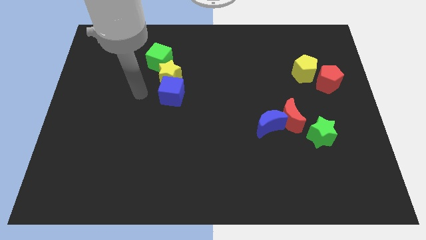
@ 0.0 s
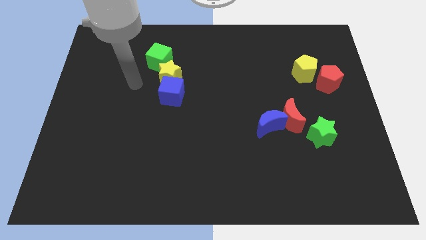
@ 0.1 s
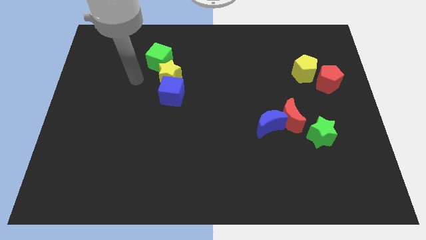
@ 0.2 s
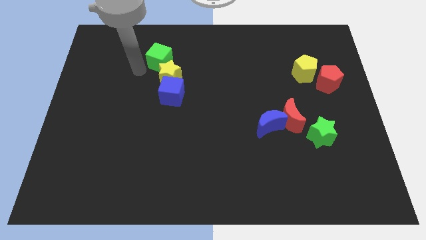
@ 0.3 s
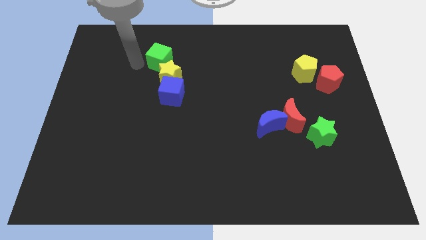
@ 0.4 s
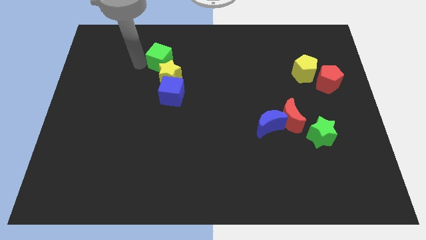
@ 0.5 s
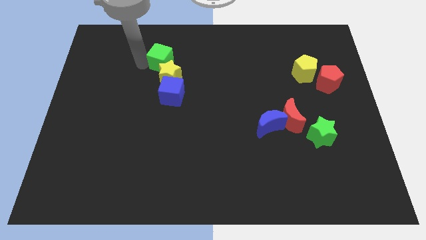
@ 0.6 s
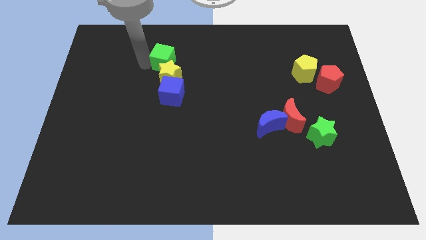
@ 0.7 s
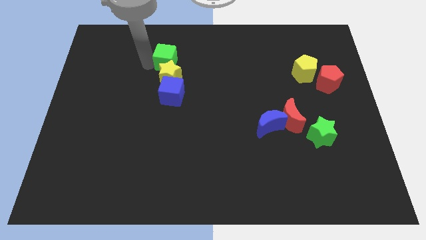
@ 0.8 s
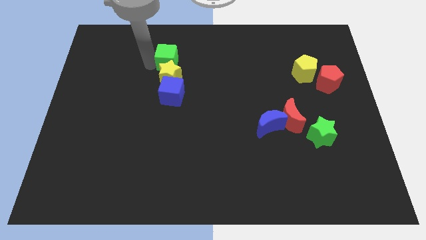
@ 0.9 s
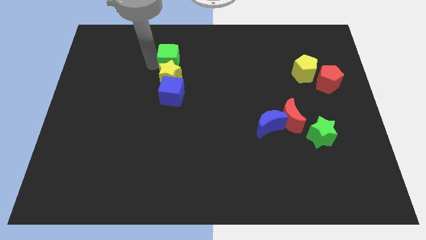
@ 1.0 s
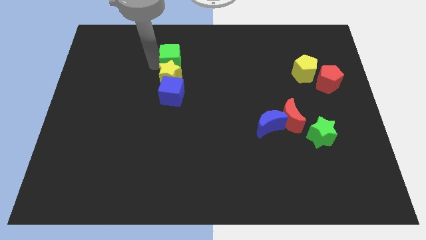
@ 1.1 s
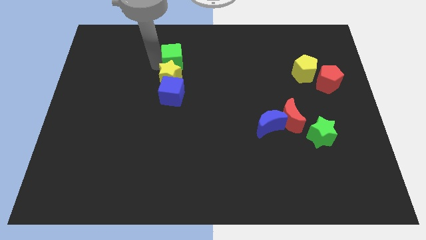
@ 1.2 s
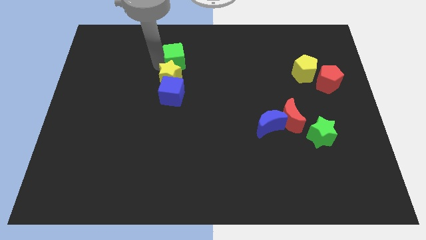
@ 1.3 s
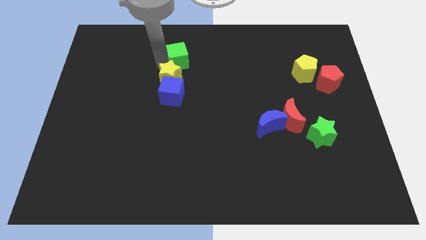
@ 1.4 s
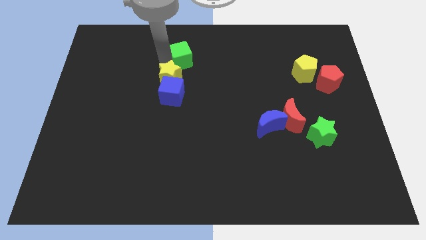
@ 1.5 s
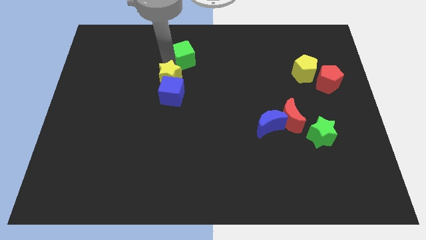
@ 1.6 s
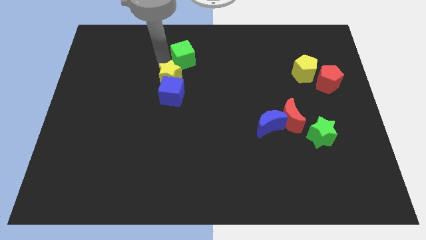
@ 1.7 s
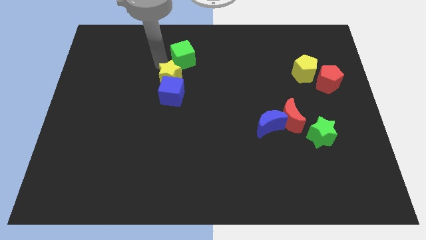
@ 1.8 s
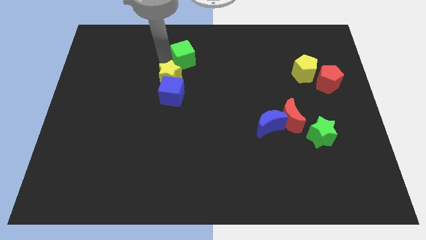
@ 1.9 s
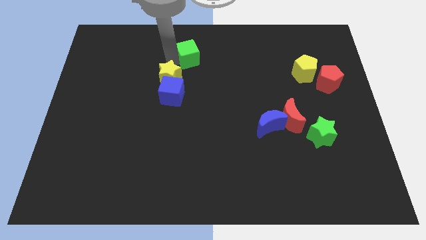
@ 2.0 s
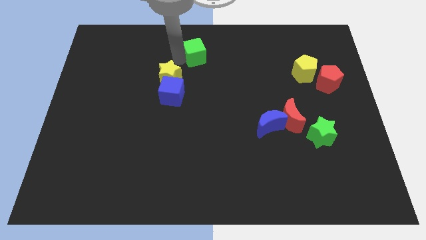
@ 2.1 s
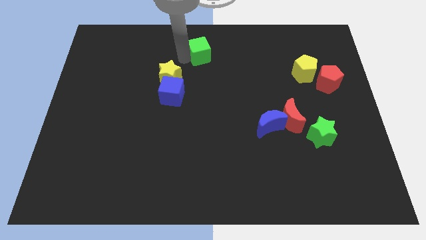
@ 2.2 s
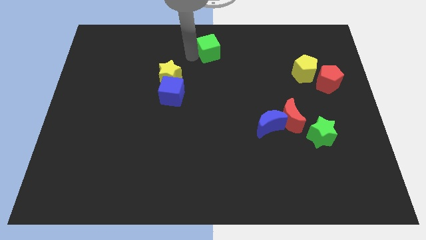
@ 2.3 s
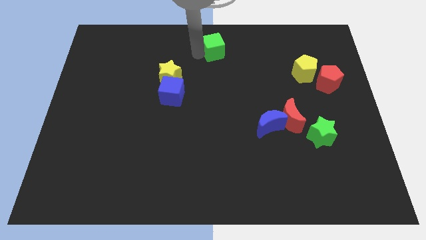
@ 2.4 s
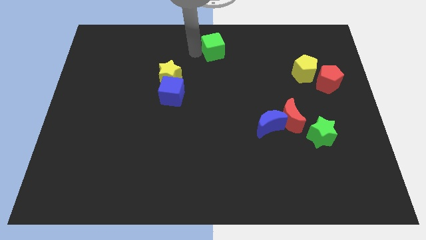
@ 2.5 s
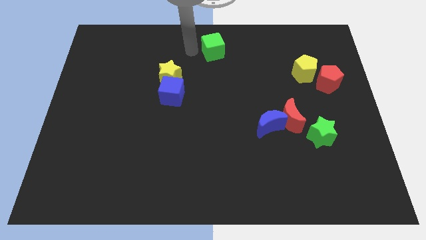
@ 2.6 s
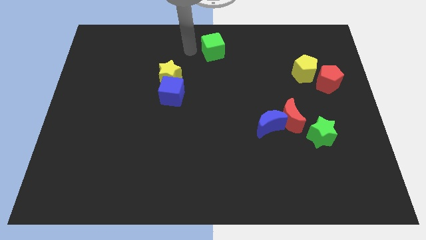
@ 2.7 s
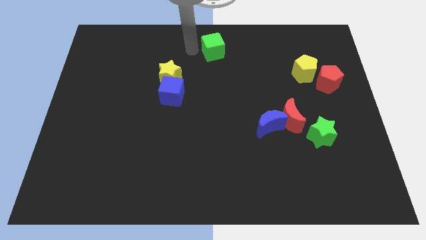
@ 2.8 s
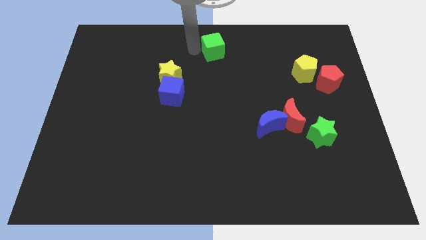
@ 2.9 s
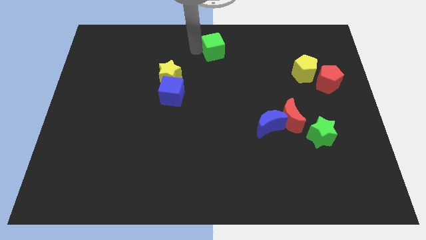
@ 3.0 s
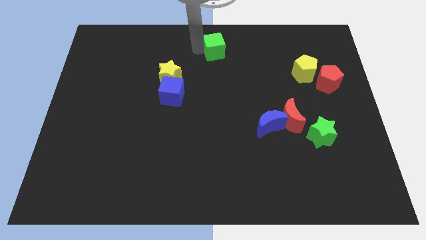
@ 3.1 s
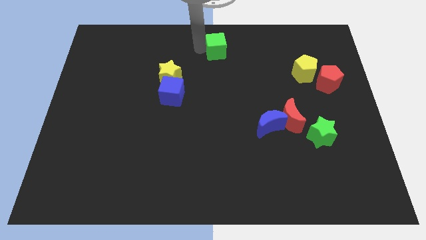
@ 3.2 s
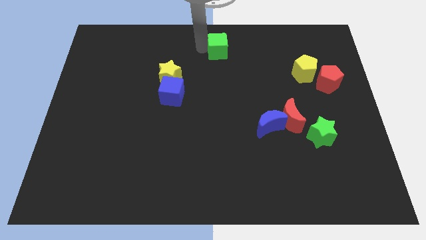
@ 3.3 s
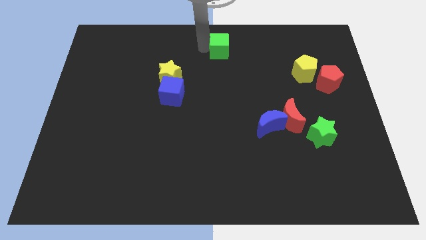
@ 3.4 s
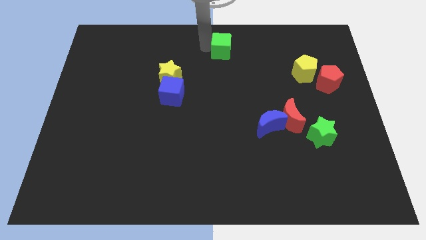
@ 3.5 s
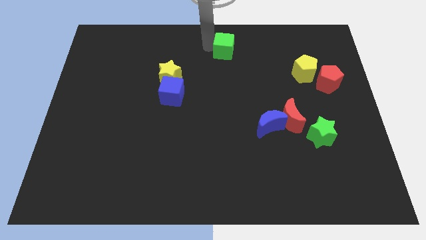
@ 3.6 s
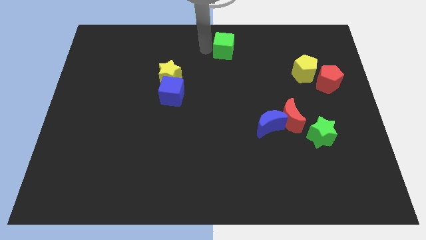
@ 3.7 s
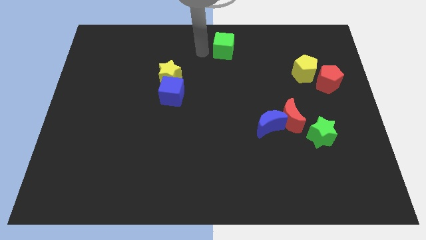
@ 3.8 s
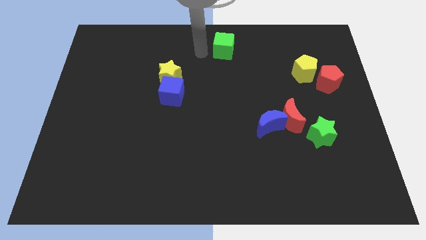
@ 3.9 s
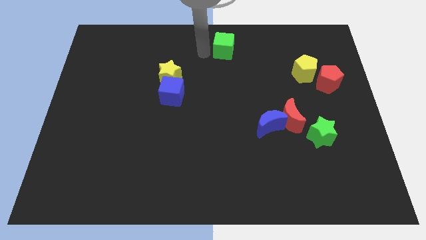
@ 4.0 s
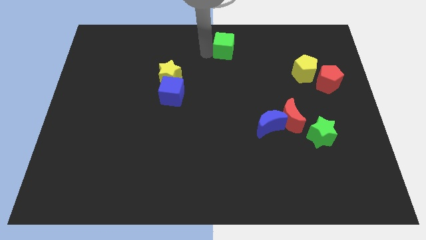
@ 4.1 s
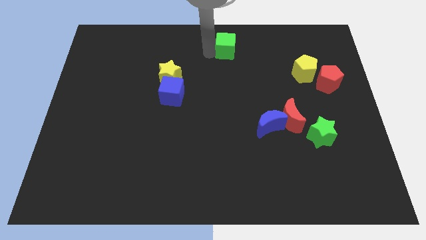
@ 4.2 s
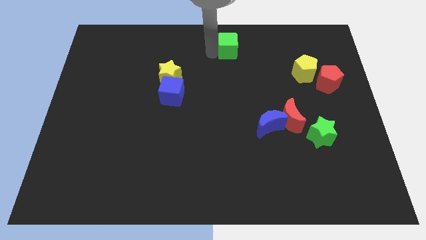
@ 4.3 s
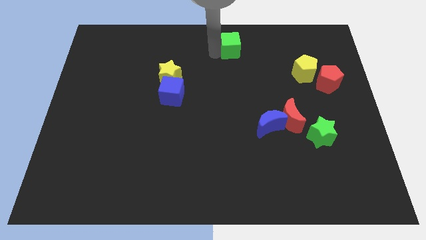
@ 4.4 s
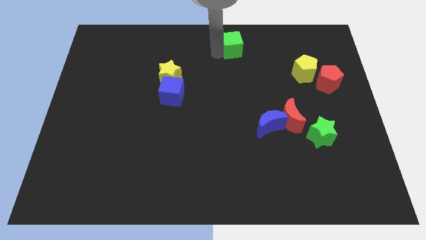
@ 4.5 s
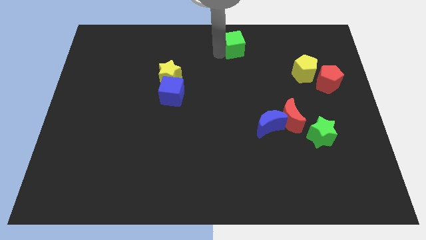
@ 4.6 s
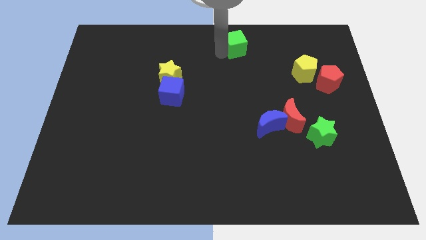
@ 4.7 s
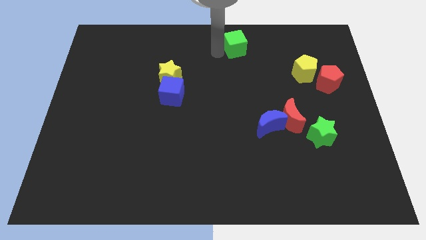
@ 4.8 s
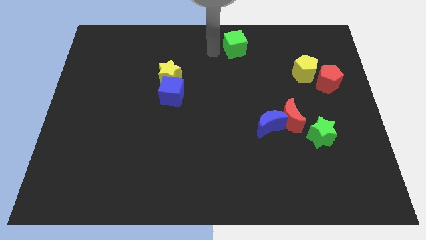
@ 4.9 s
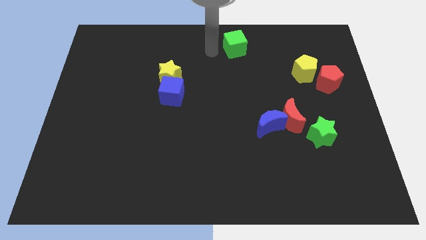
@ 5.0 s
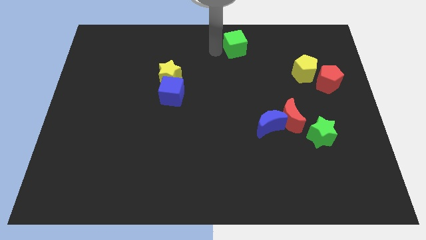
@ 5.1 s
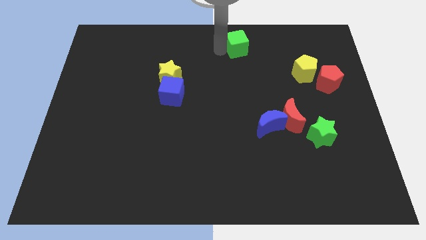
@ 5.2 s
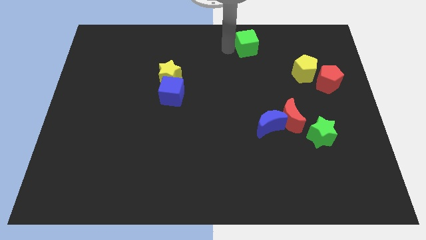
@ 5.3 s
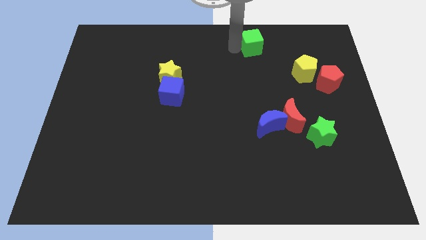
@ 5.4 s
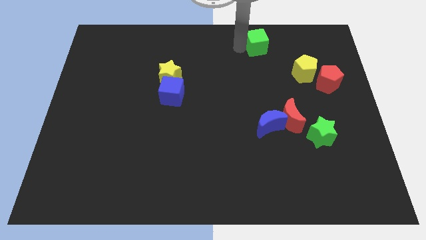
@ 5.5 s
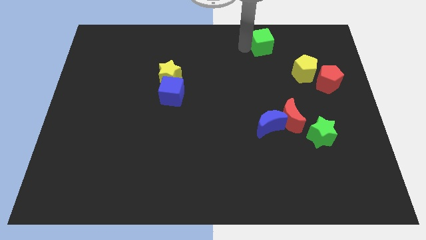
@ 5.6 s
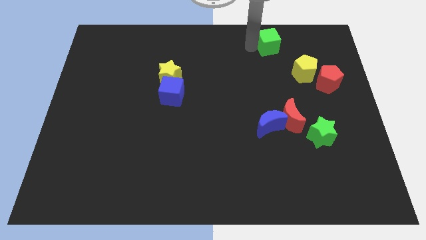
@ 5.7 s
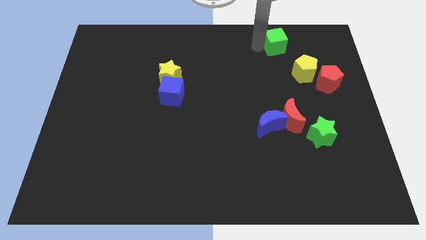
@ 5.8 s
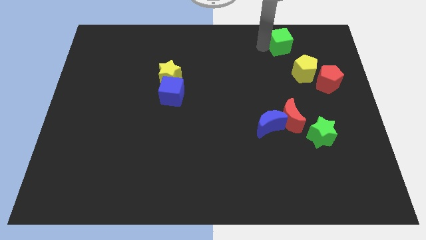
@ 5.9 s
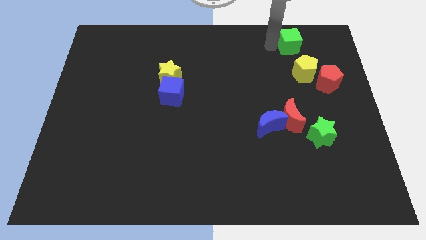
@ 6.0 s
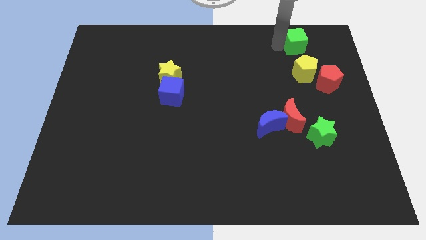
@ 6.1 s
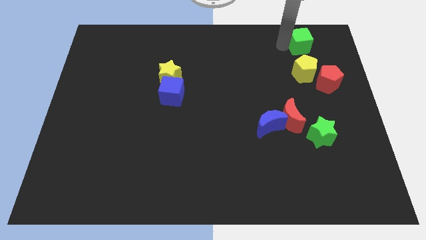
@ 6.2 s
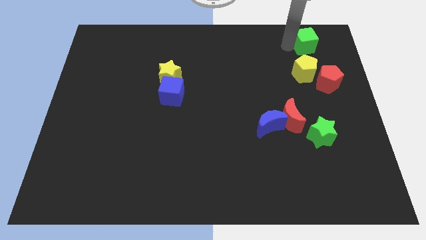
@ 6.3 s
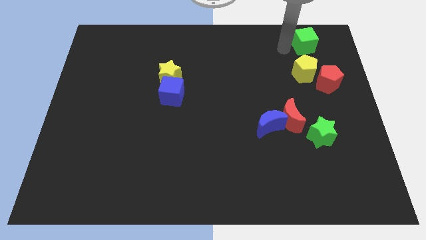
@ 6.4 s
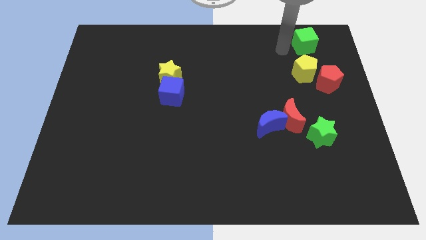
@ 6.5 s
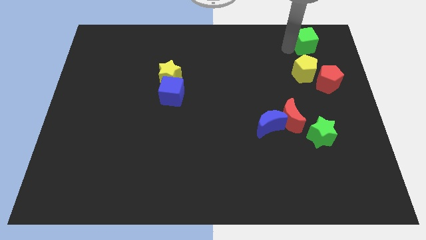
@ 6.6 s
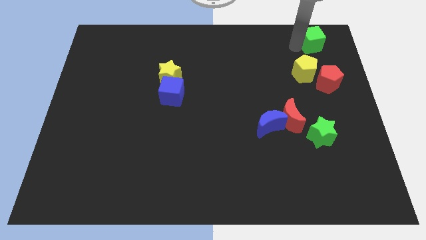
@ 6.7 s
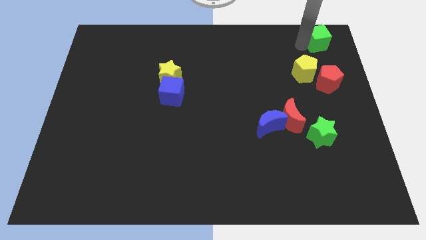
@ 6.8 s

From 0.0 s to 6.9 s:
slide the green cube to the top right of the board
